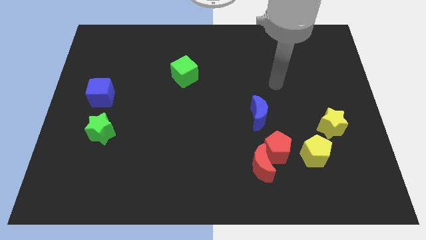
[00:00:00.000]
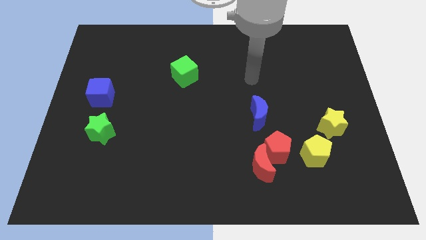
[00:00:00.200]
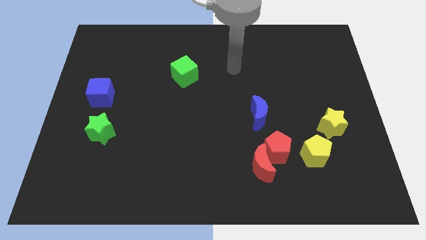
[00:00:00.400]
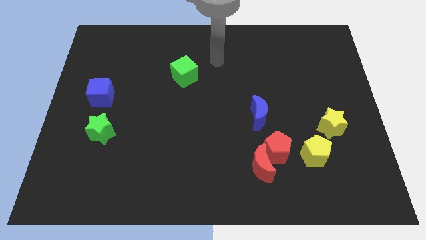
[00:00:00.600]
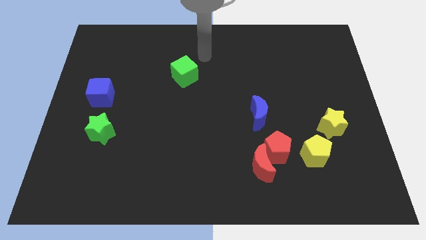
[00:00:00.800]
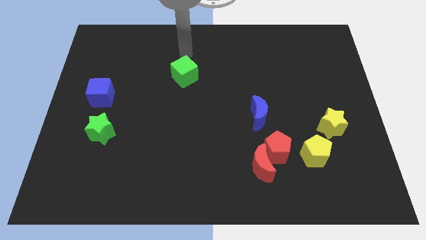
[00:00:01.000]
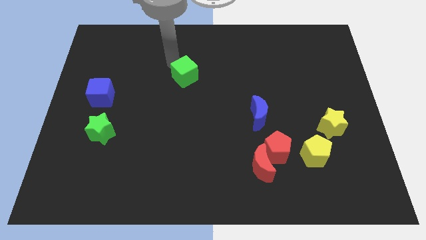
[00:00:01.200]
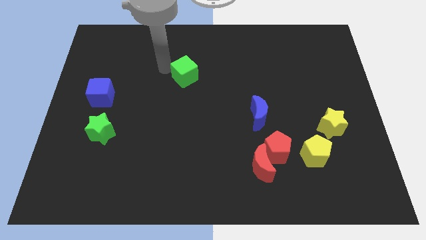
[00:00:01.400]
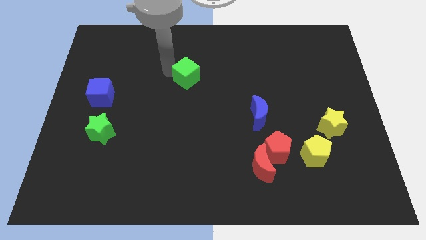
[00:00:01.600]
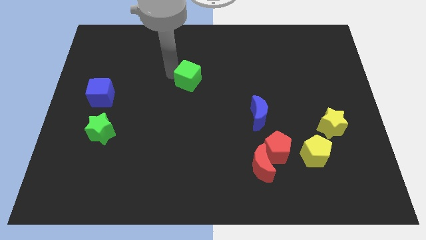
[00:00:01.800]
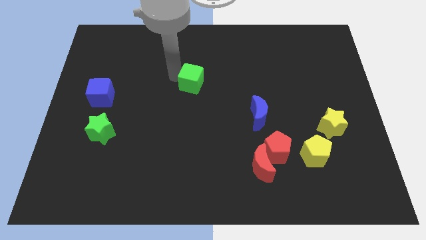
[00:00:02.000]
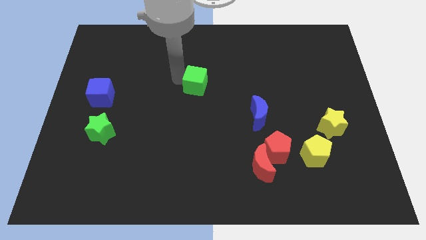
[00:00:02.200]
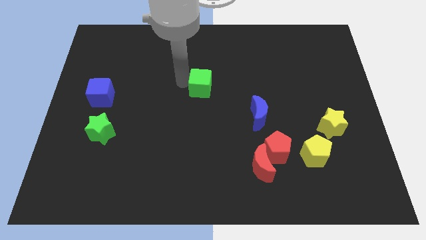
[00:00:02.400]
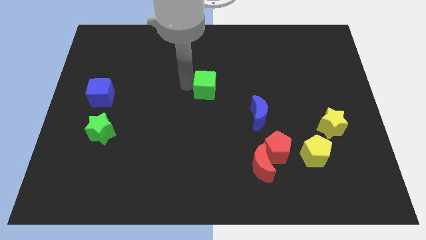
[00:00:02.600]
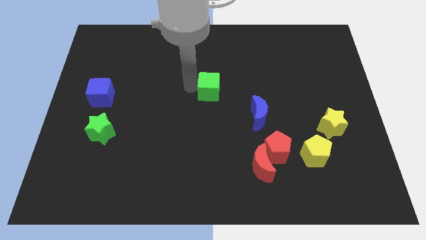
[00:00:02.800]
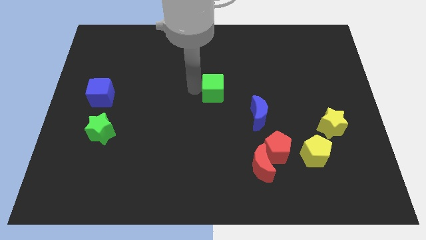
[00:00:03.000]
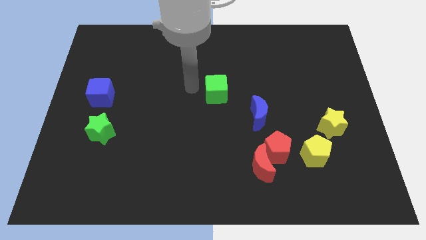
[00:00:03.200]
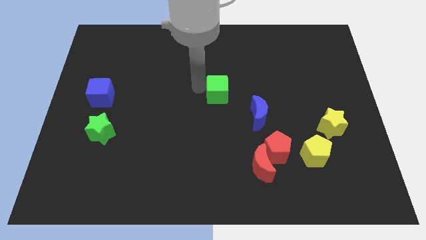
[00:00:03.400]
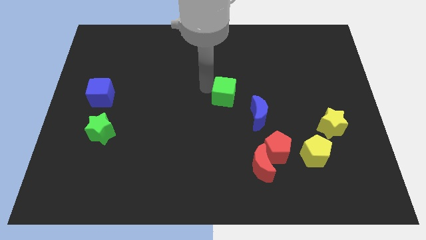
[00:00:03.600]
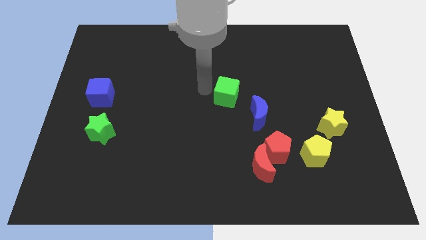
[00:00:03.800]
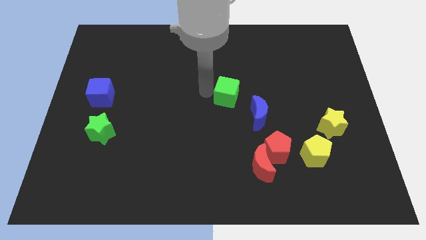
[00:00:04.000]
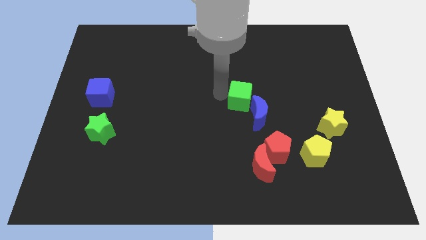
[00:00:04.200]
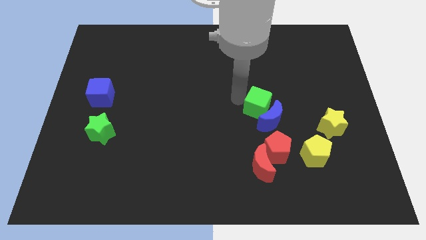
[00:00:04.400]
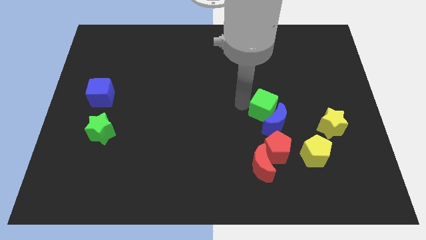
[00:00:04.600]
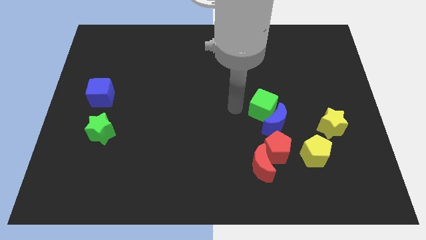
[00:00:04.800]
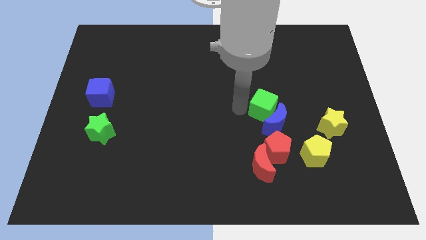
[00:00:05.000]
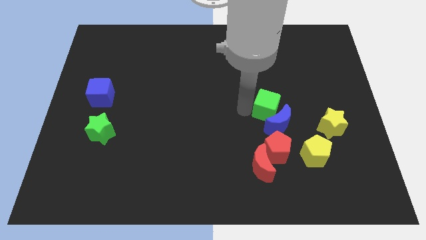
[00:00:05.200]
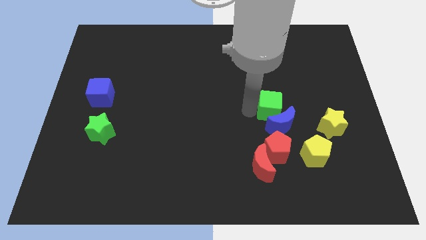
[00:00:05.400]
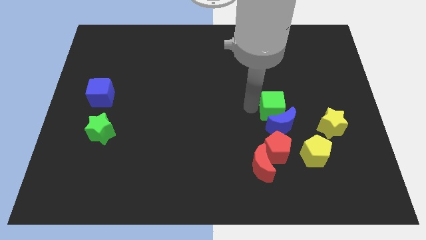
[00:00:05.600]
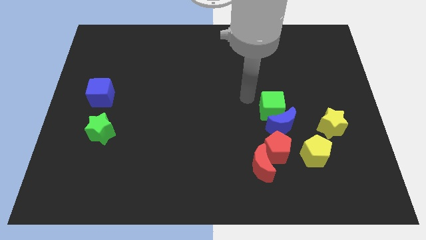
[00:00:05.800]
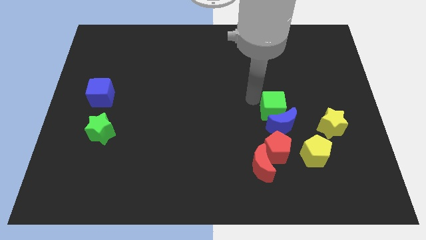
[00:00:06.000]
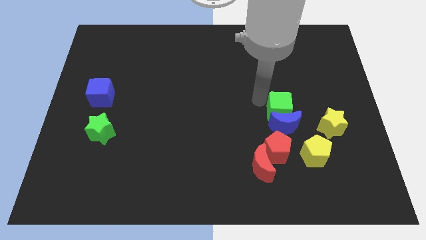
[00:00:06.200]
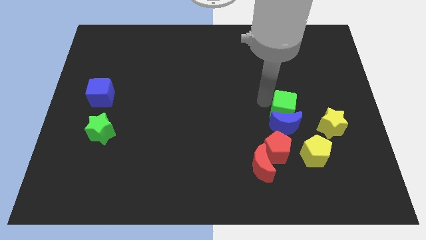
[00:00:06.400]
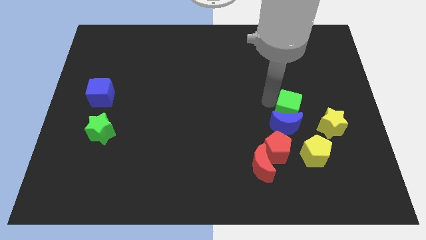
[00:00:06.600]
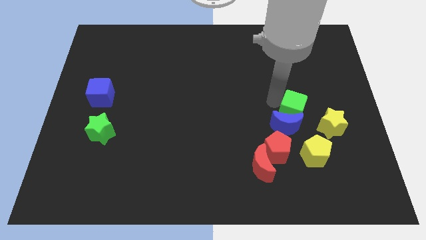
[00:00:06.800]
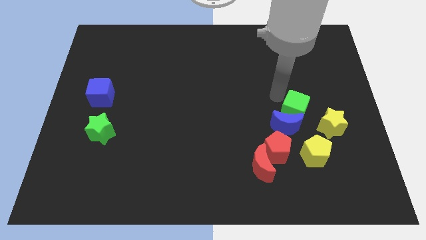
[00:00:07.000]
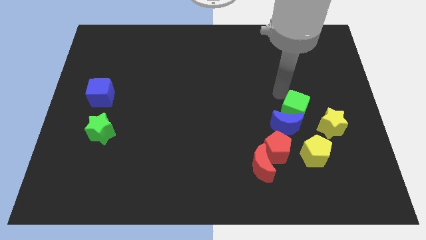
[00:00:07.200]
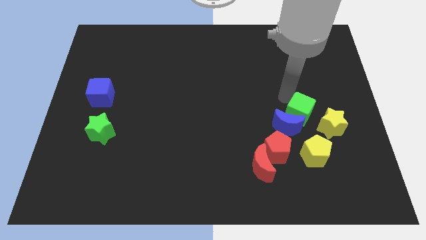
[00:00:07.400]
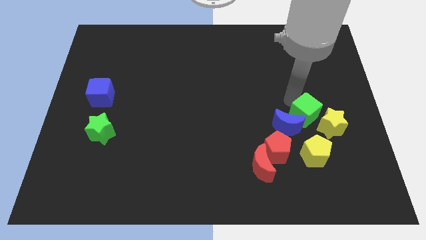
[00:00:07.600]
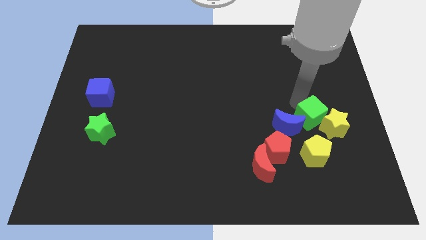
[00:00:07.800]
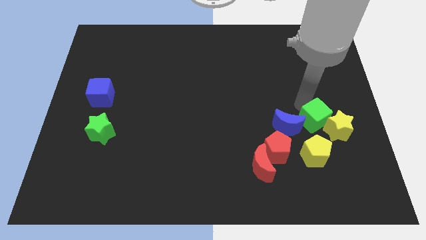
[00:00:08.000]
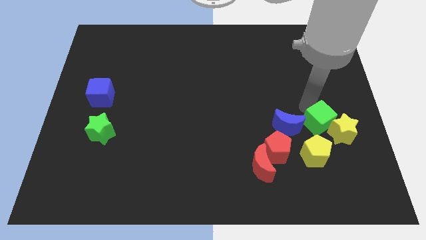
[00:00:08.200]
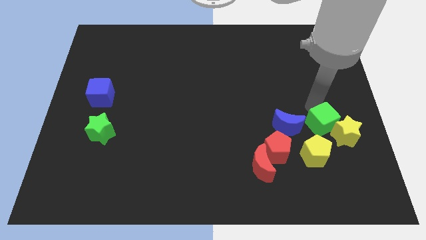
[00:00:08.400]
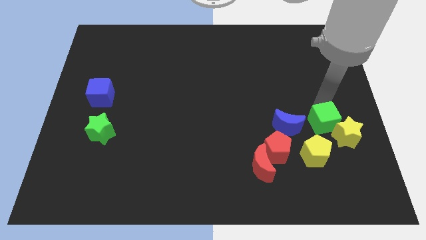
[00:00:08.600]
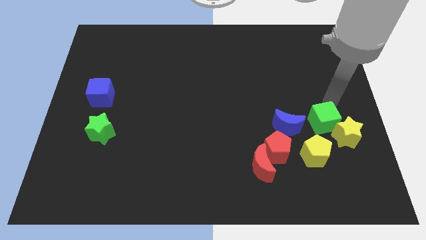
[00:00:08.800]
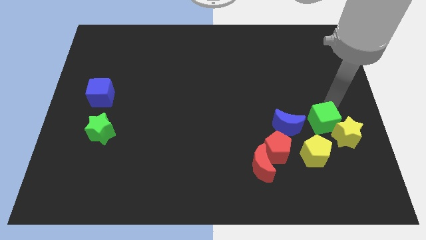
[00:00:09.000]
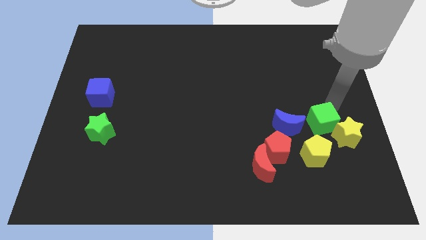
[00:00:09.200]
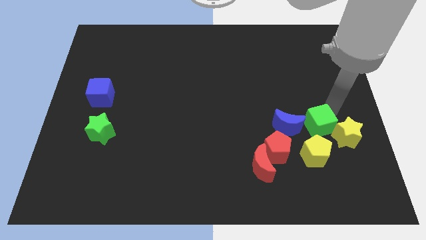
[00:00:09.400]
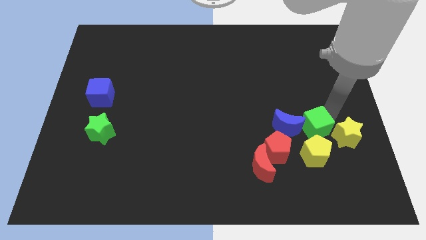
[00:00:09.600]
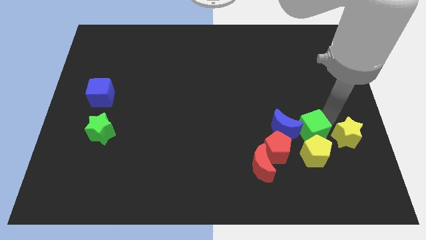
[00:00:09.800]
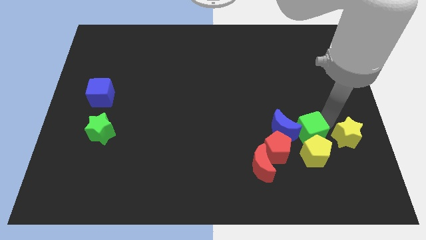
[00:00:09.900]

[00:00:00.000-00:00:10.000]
slide the green cube to the right of the red pentagon

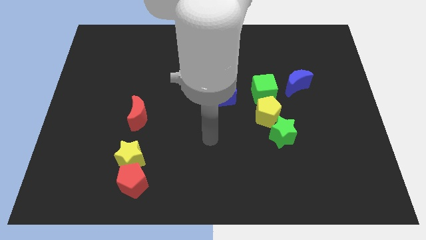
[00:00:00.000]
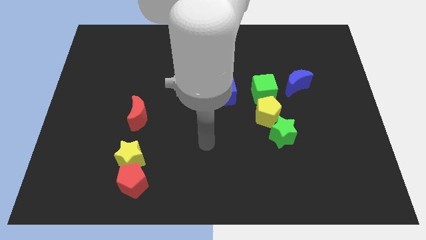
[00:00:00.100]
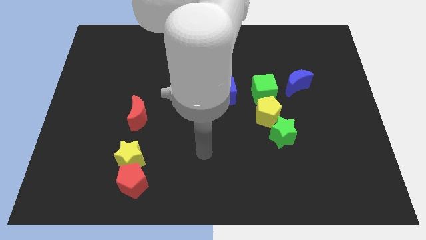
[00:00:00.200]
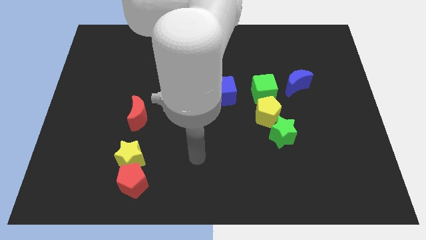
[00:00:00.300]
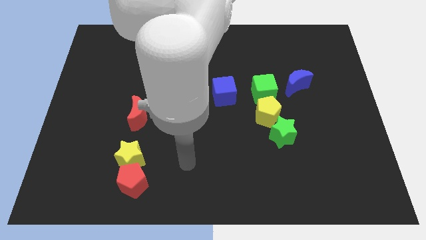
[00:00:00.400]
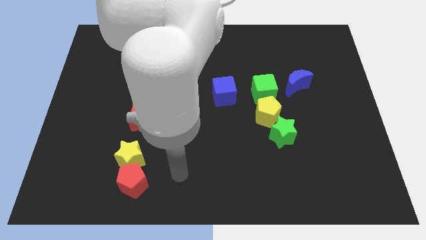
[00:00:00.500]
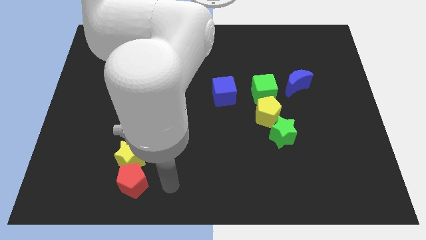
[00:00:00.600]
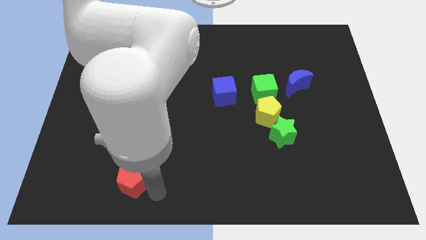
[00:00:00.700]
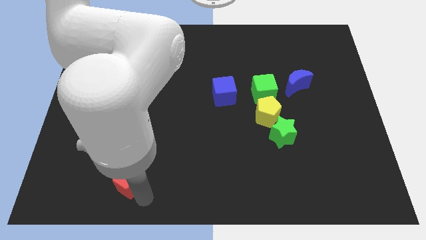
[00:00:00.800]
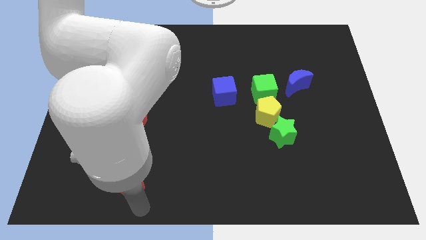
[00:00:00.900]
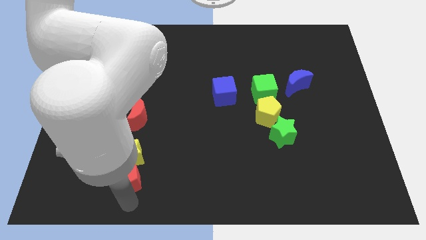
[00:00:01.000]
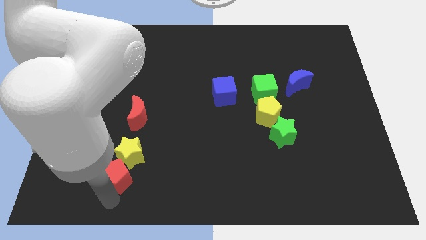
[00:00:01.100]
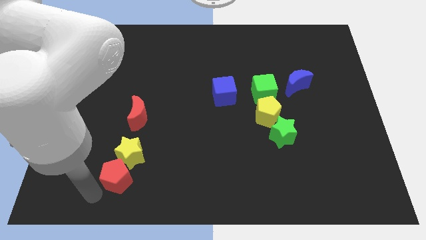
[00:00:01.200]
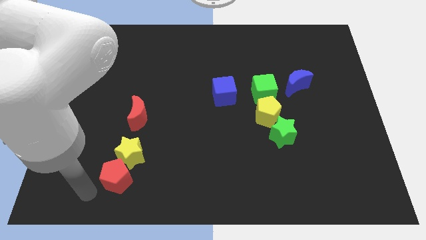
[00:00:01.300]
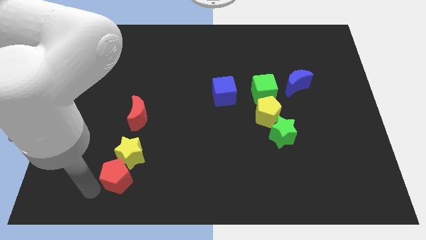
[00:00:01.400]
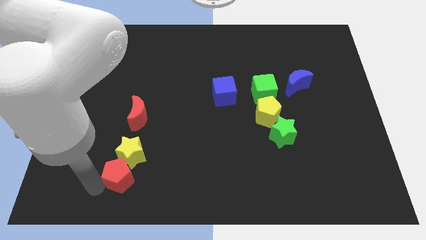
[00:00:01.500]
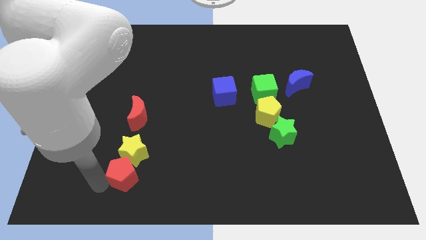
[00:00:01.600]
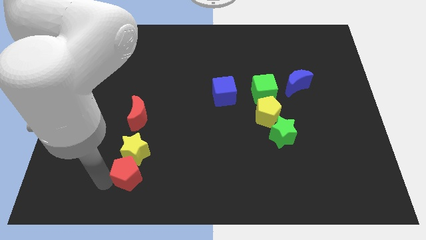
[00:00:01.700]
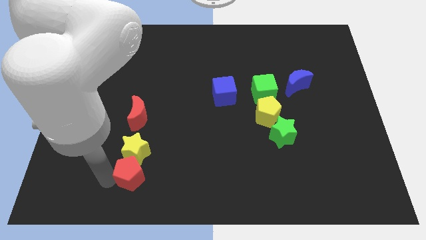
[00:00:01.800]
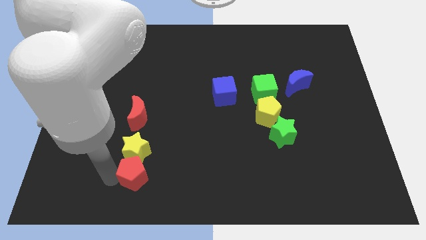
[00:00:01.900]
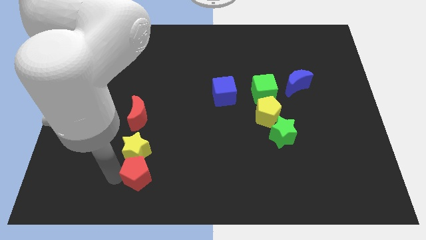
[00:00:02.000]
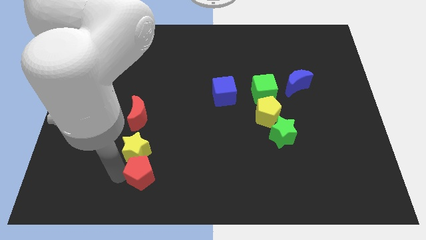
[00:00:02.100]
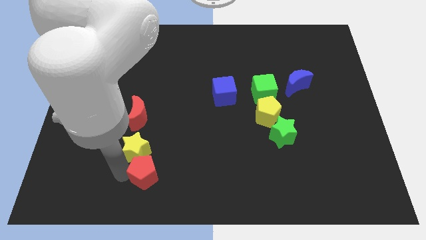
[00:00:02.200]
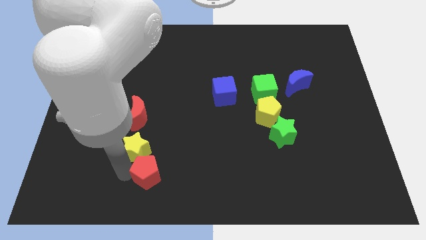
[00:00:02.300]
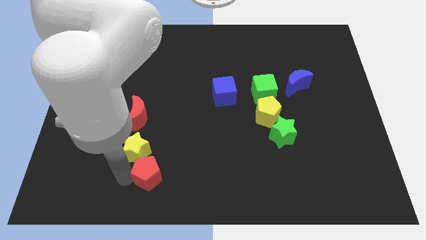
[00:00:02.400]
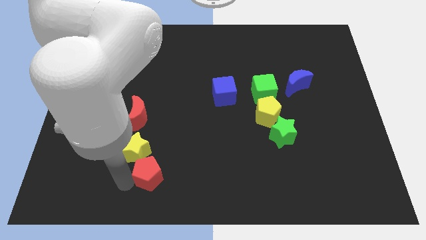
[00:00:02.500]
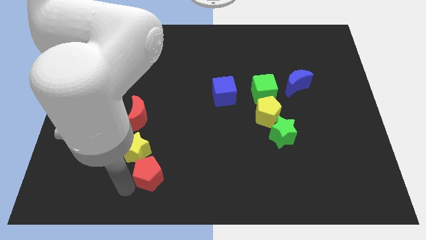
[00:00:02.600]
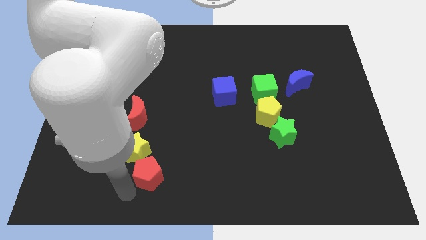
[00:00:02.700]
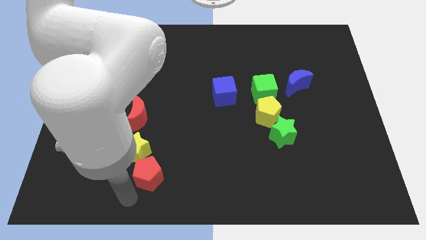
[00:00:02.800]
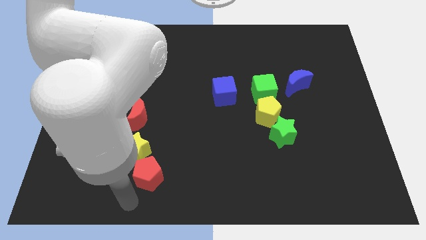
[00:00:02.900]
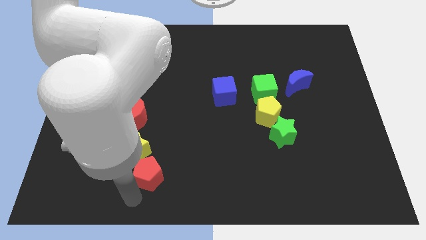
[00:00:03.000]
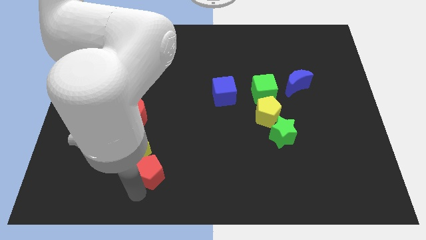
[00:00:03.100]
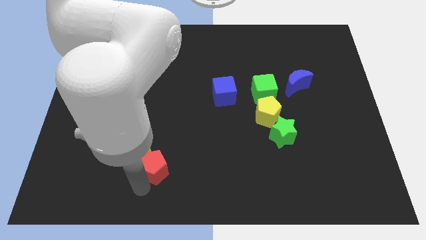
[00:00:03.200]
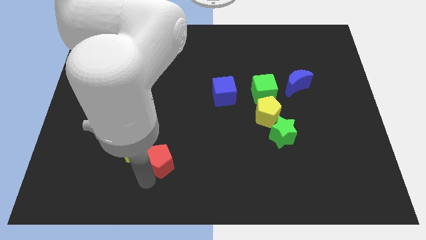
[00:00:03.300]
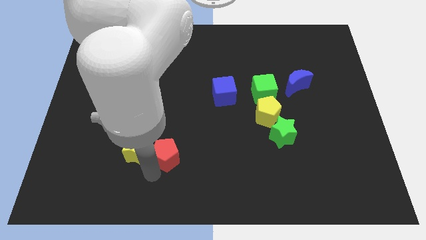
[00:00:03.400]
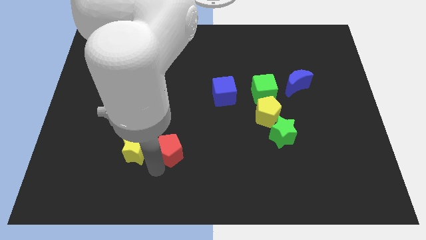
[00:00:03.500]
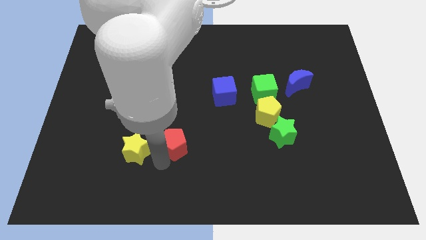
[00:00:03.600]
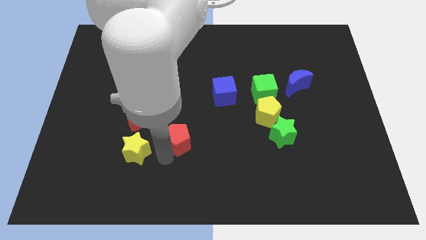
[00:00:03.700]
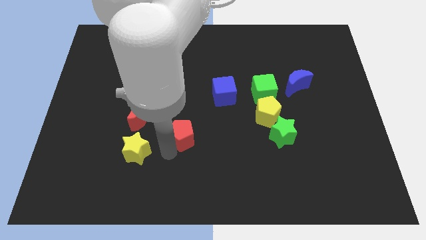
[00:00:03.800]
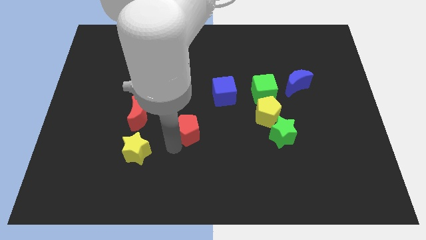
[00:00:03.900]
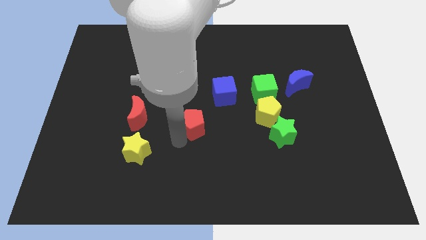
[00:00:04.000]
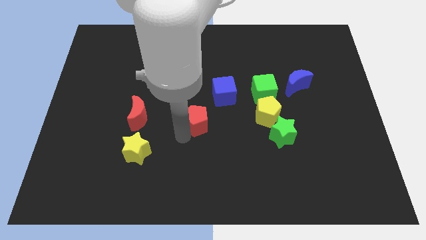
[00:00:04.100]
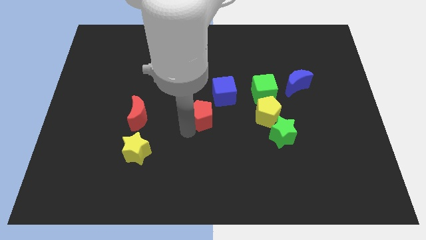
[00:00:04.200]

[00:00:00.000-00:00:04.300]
put the red pentagon just left of the yellow pentagon
